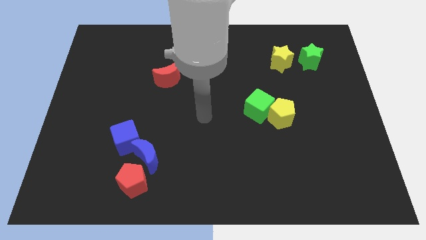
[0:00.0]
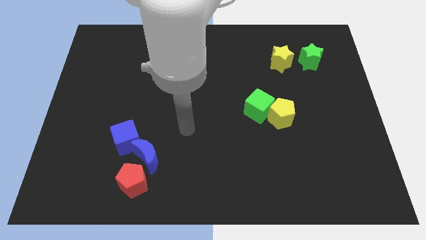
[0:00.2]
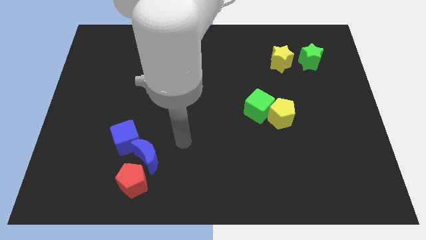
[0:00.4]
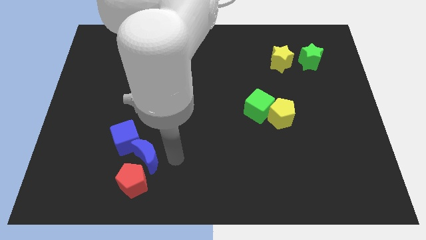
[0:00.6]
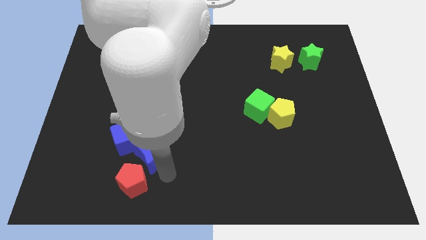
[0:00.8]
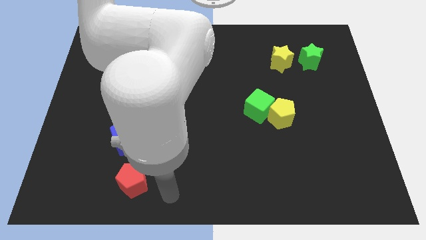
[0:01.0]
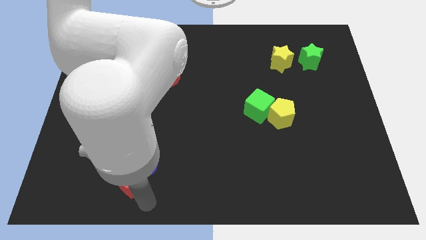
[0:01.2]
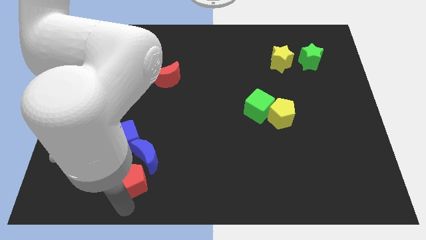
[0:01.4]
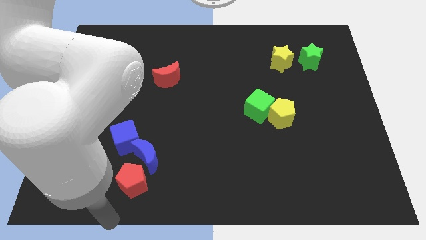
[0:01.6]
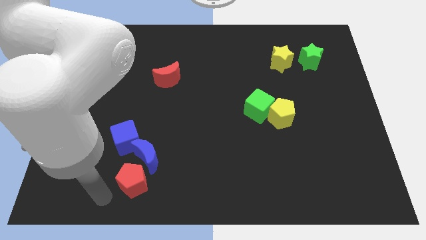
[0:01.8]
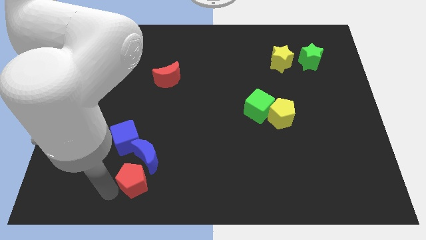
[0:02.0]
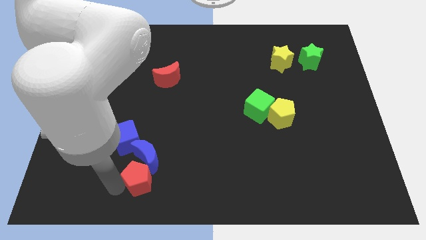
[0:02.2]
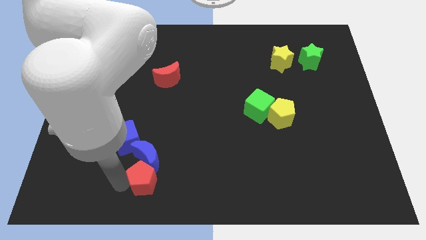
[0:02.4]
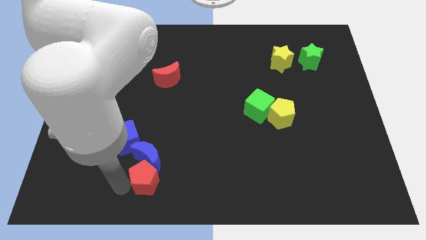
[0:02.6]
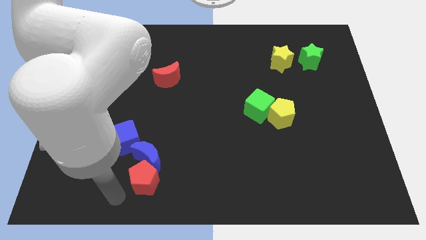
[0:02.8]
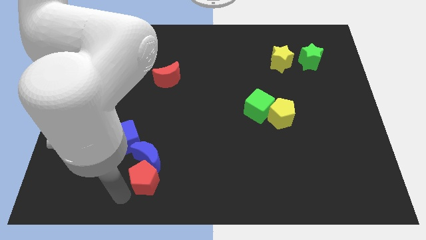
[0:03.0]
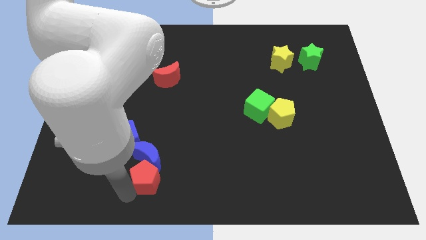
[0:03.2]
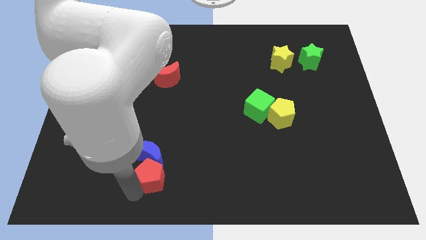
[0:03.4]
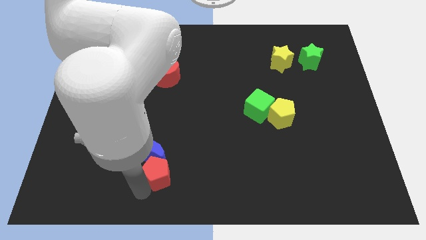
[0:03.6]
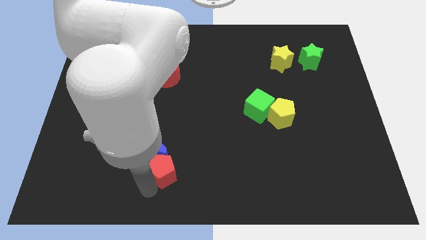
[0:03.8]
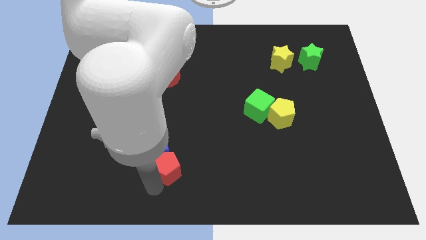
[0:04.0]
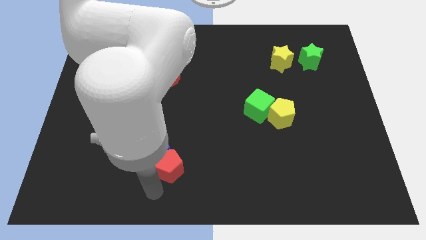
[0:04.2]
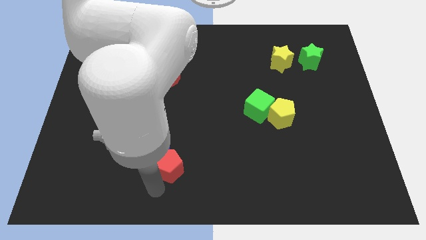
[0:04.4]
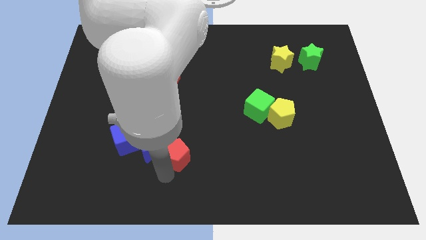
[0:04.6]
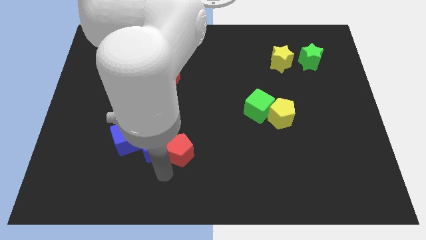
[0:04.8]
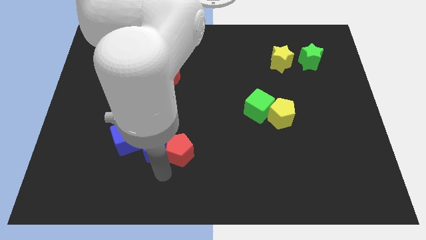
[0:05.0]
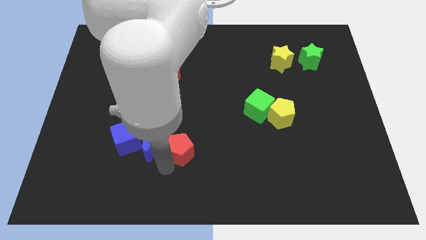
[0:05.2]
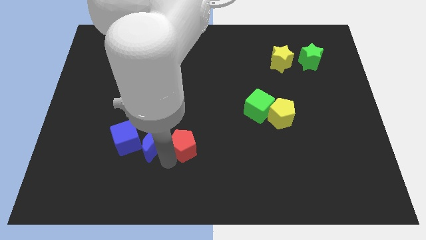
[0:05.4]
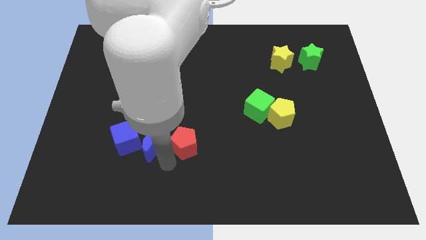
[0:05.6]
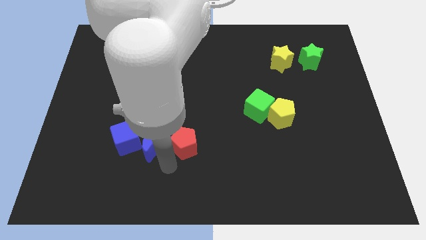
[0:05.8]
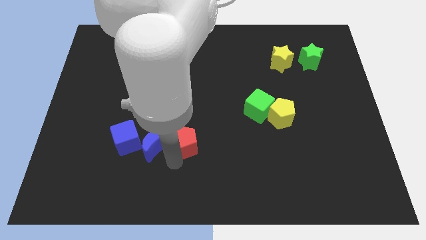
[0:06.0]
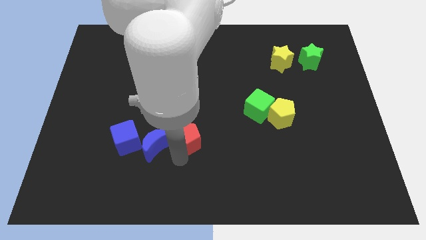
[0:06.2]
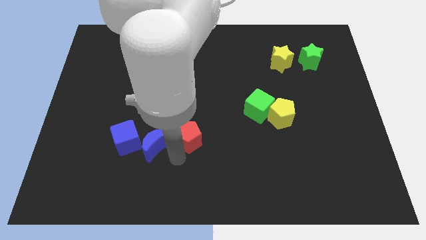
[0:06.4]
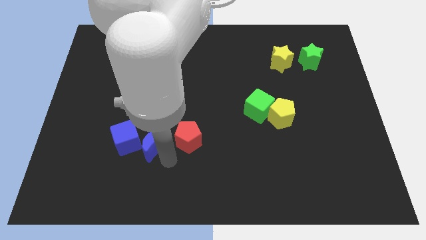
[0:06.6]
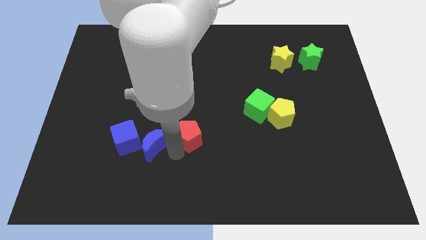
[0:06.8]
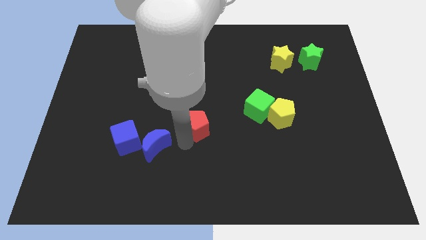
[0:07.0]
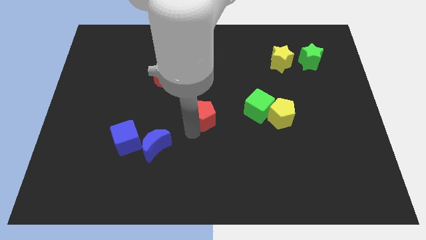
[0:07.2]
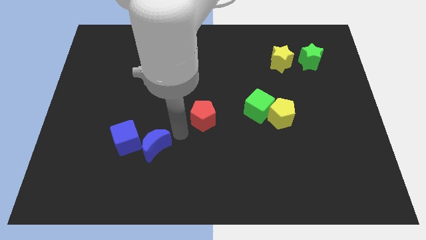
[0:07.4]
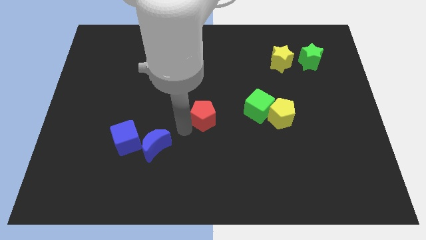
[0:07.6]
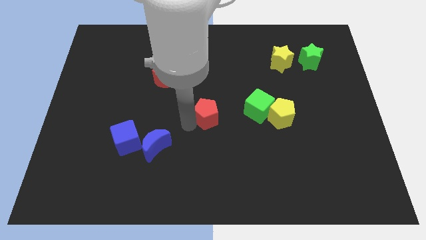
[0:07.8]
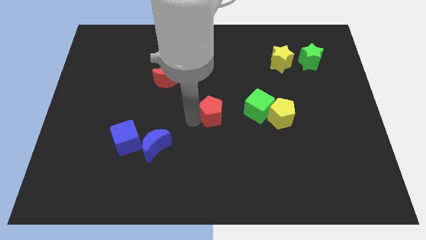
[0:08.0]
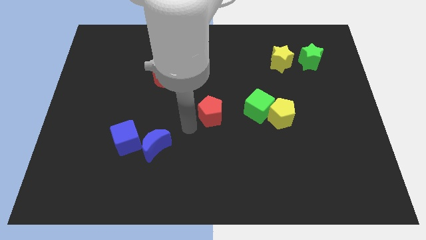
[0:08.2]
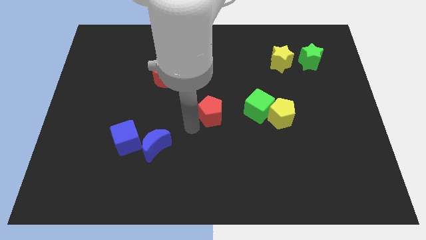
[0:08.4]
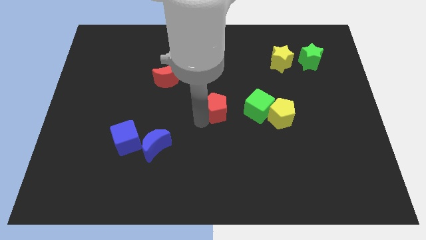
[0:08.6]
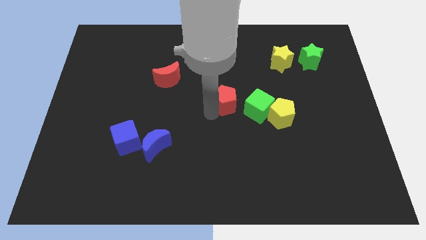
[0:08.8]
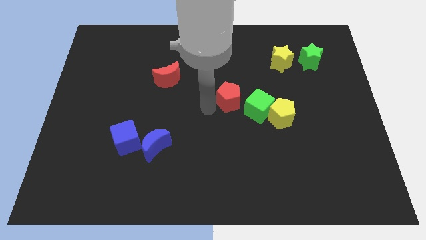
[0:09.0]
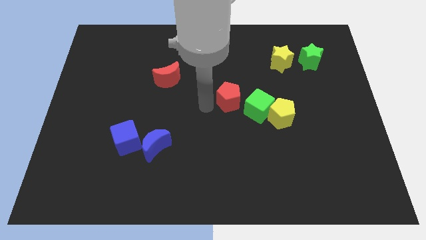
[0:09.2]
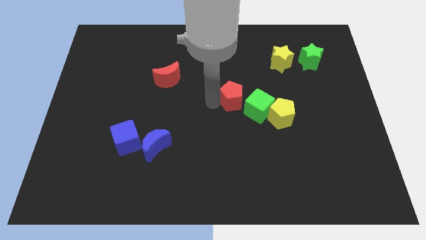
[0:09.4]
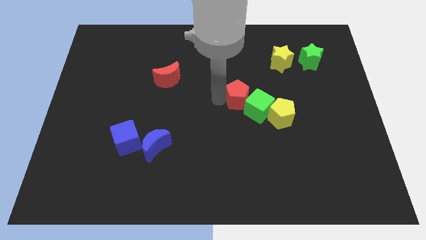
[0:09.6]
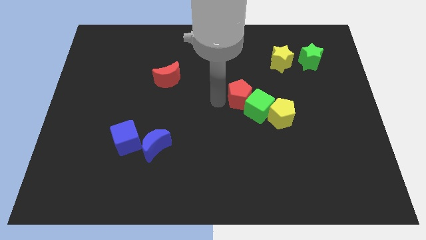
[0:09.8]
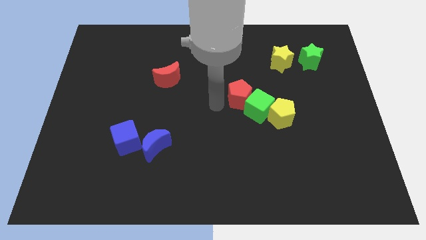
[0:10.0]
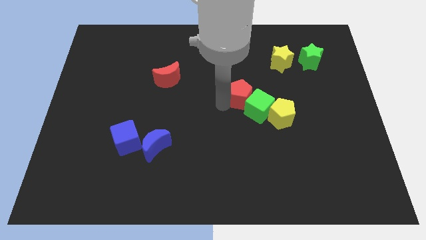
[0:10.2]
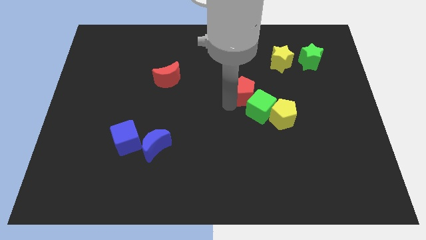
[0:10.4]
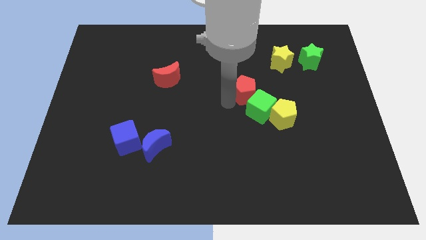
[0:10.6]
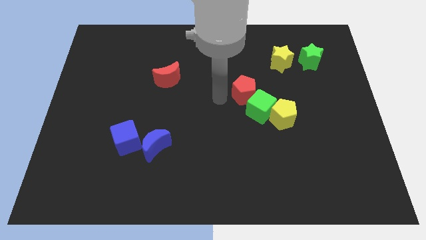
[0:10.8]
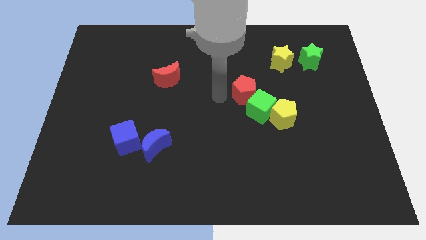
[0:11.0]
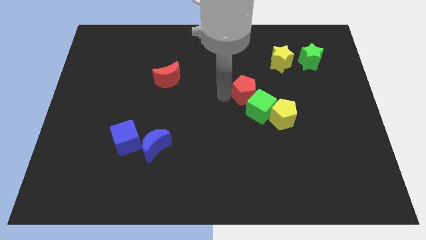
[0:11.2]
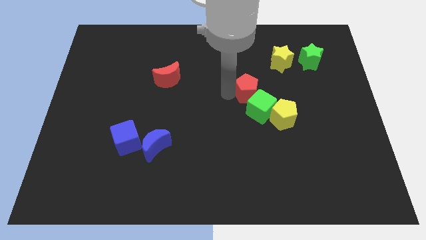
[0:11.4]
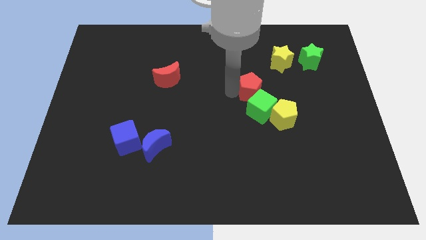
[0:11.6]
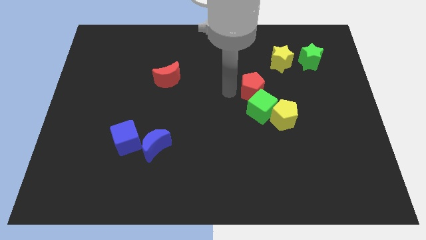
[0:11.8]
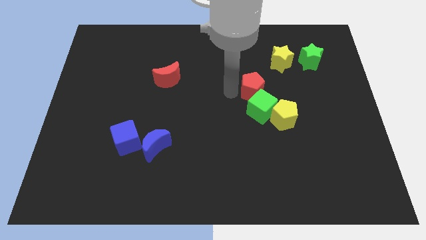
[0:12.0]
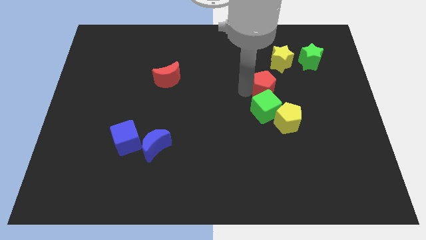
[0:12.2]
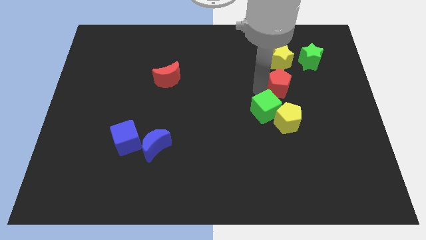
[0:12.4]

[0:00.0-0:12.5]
move the red pentagon diagonally down and to the left of the green star
